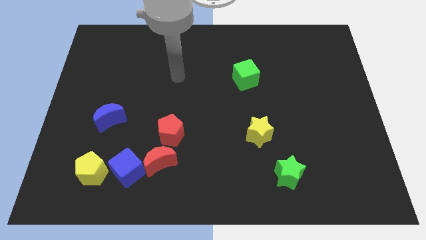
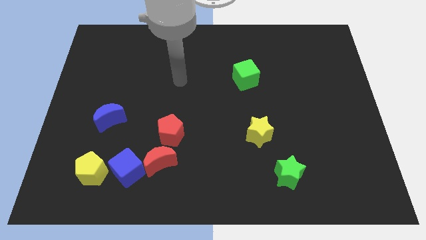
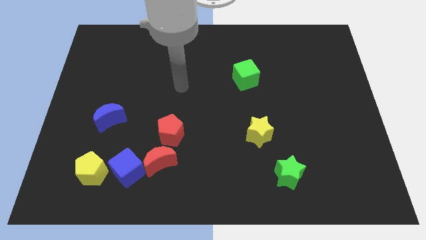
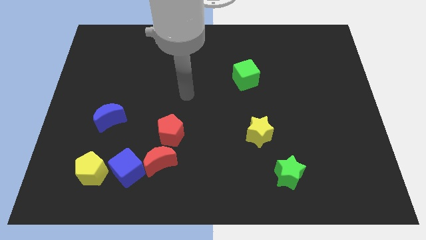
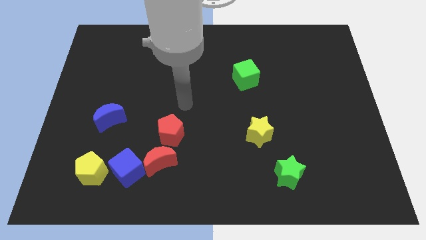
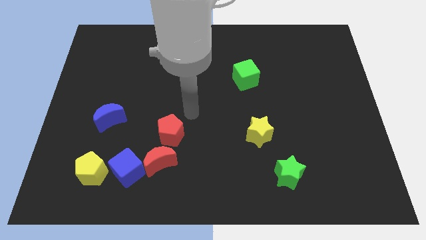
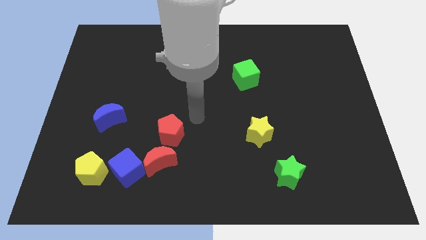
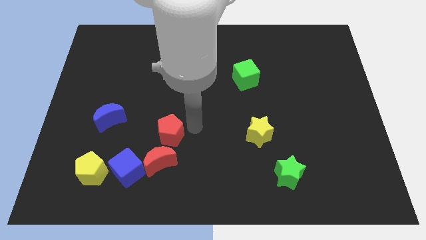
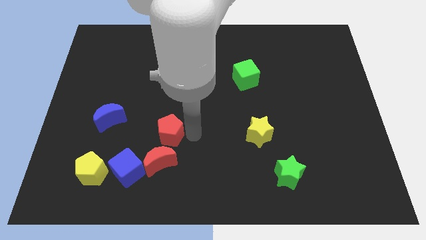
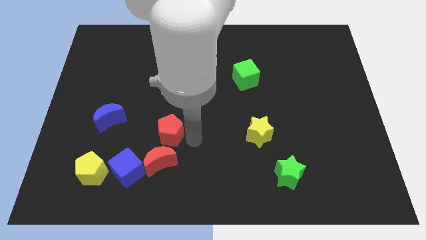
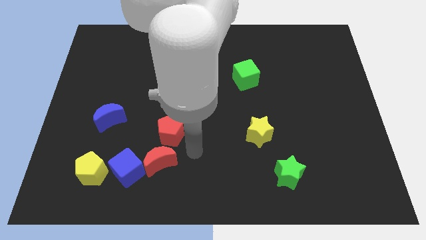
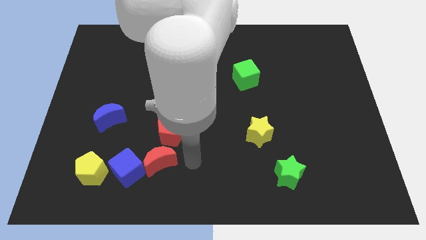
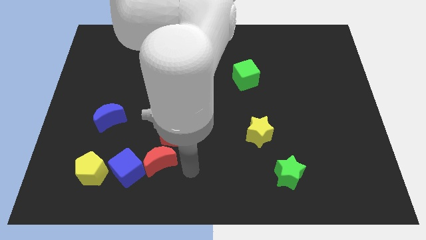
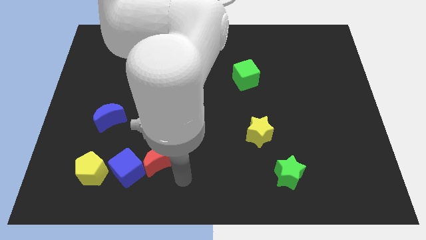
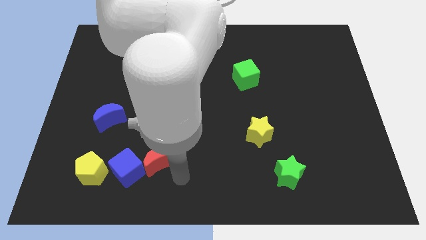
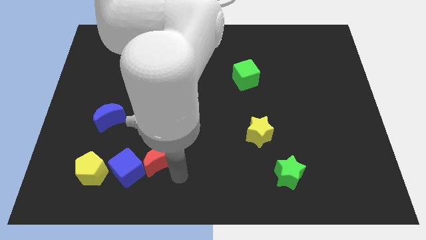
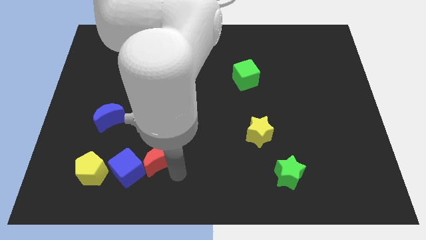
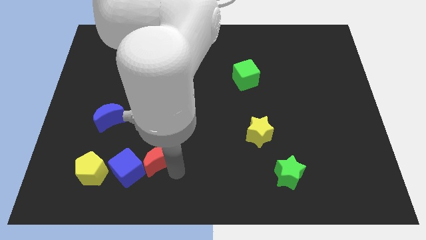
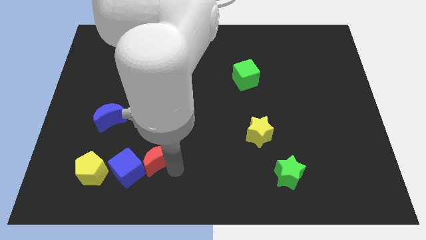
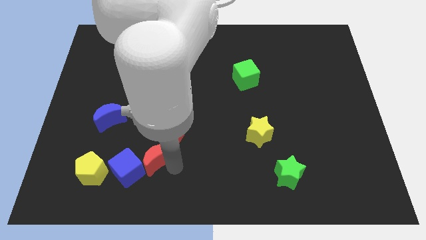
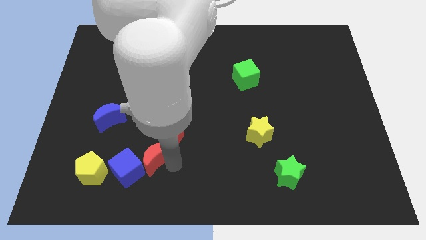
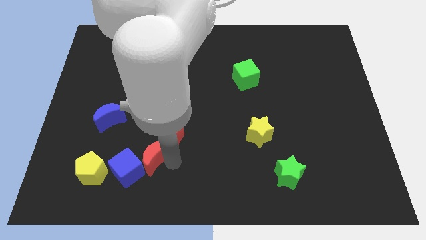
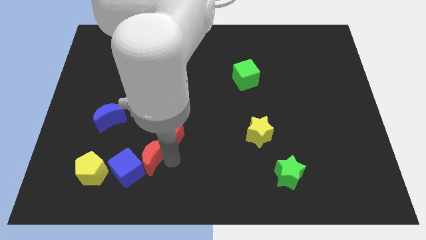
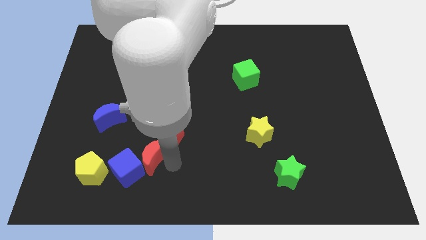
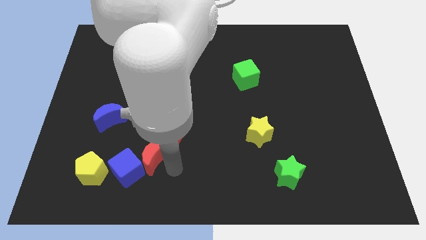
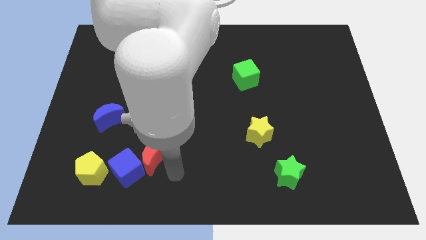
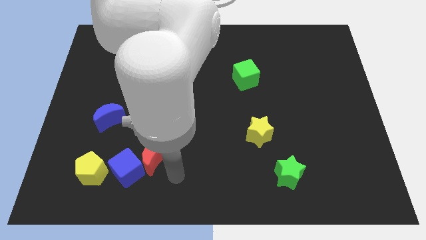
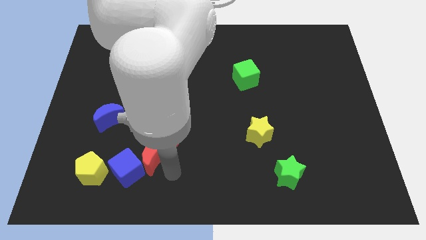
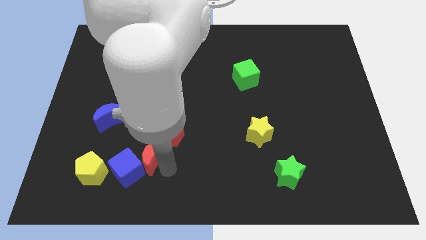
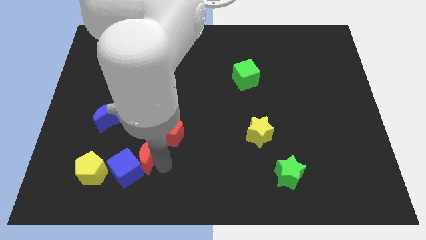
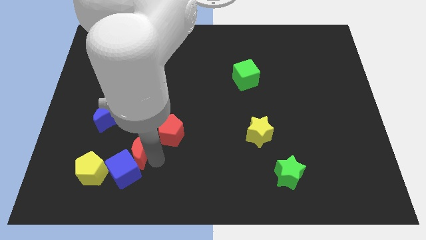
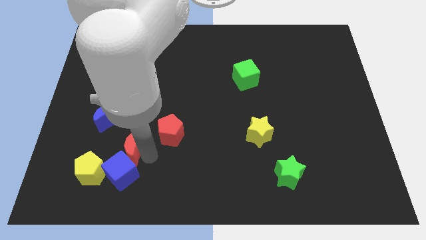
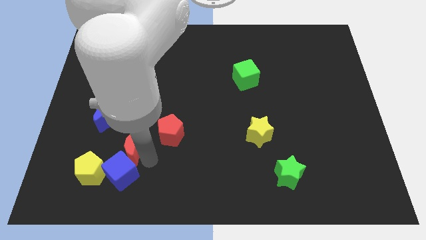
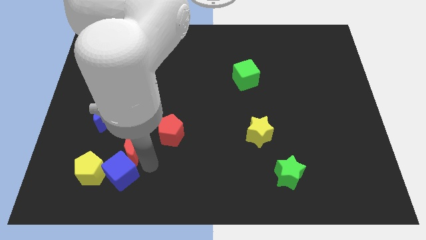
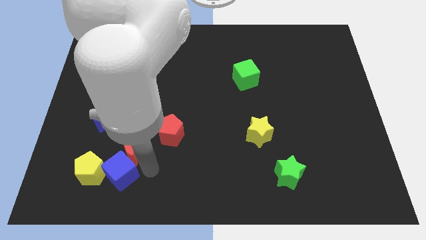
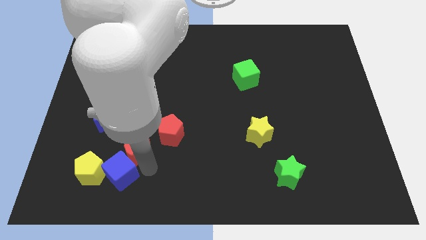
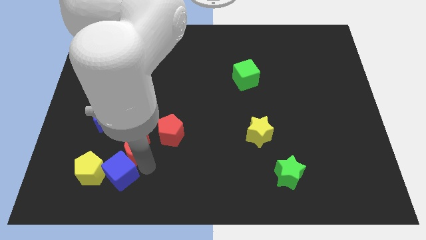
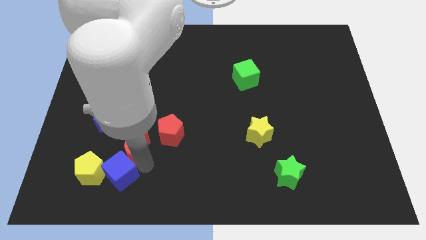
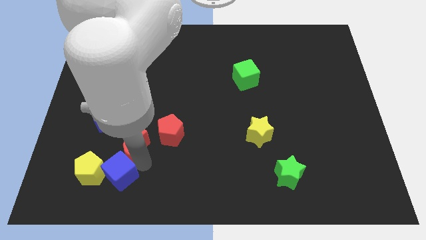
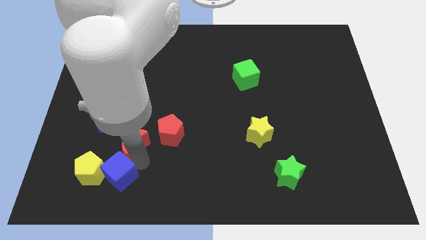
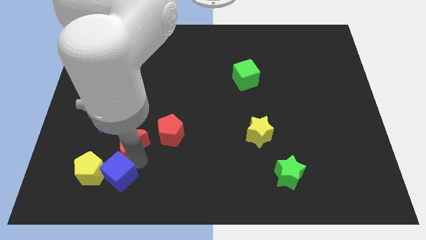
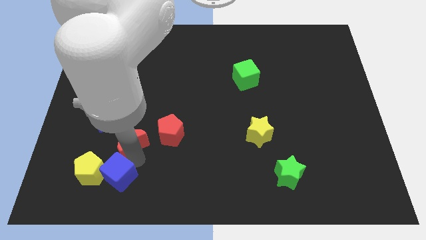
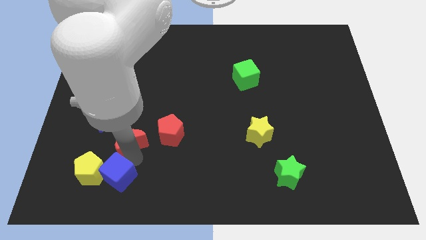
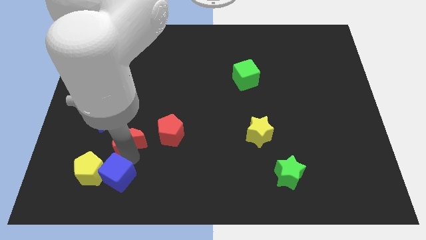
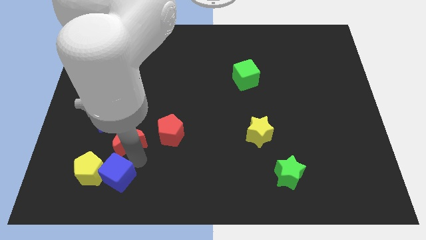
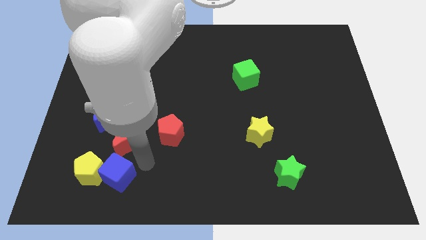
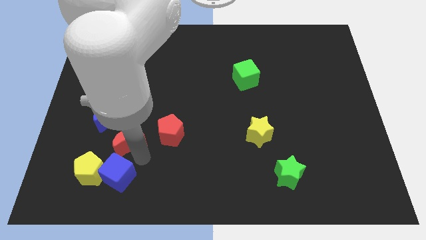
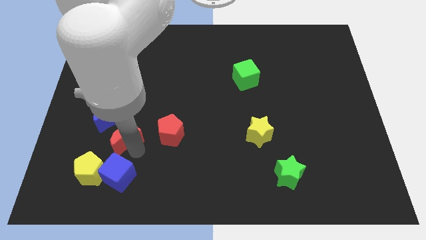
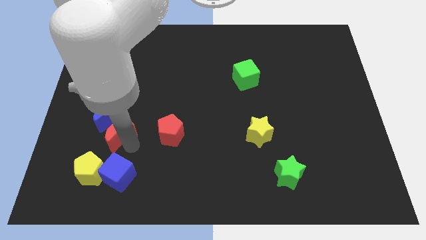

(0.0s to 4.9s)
put the red moon next to the blue moon

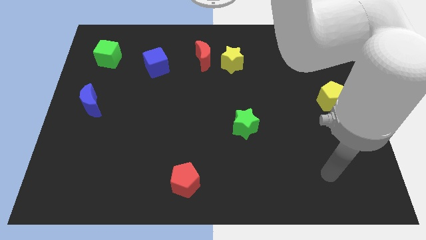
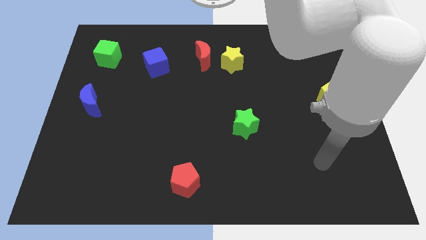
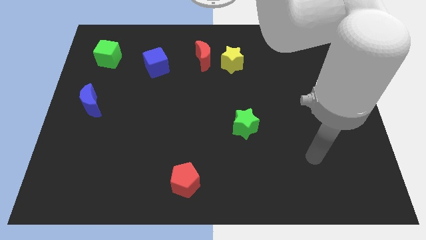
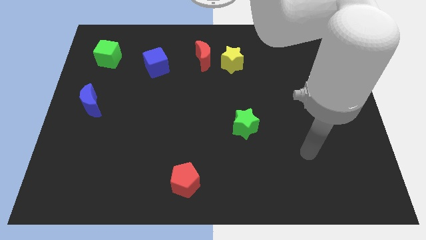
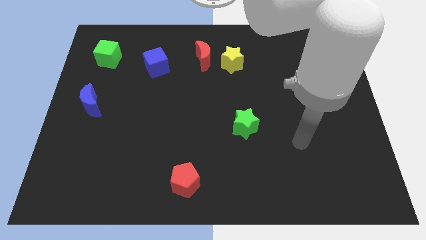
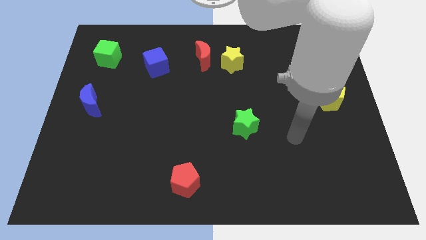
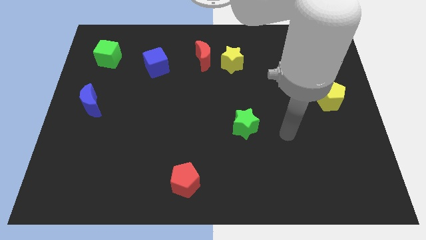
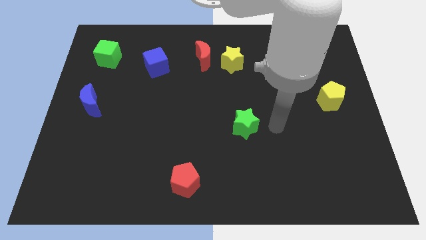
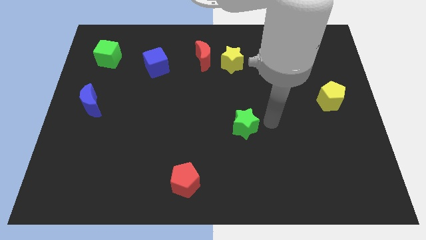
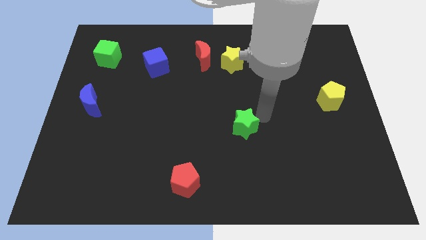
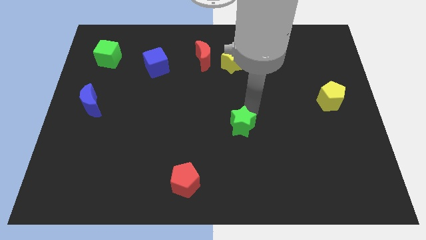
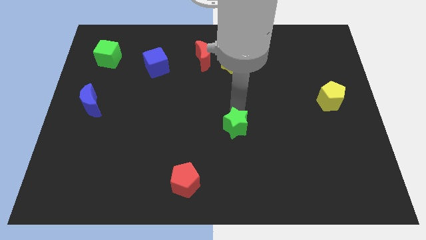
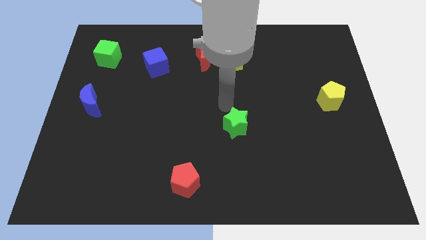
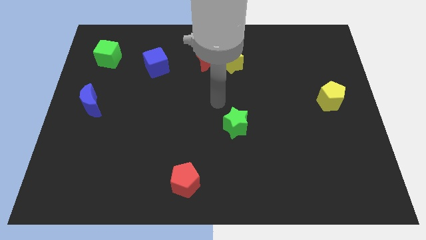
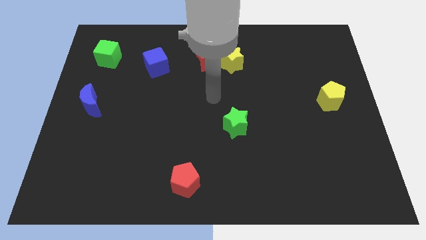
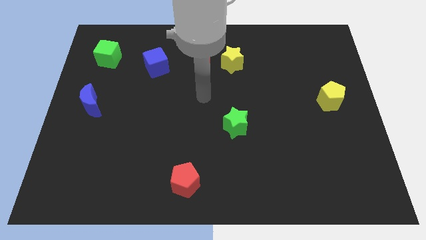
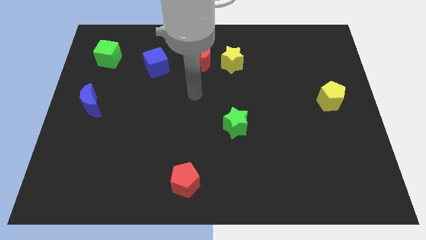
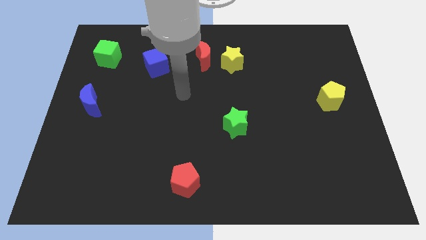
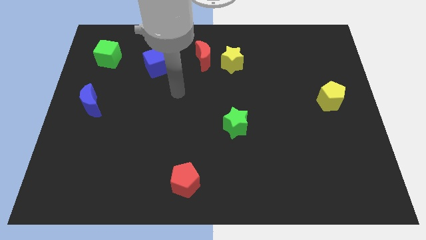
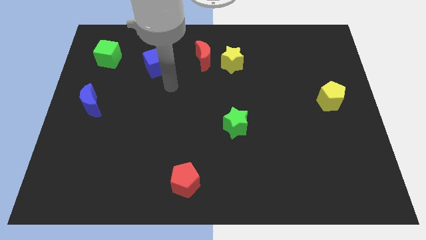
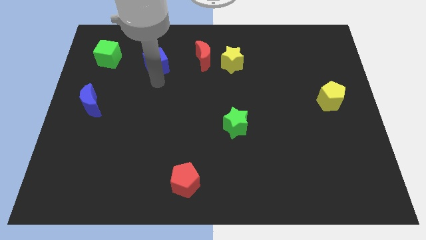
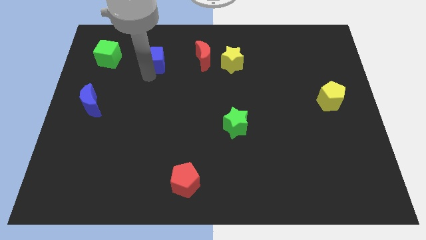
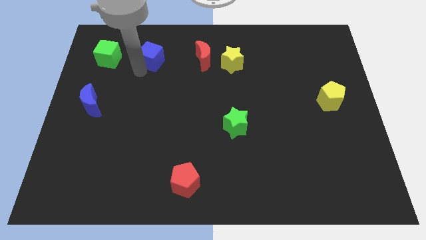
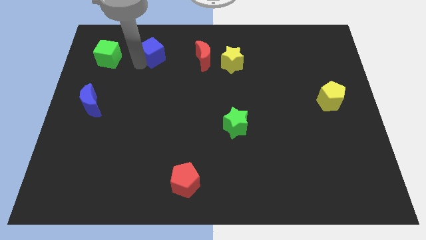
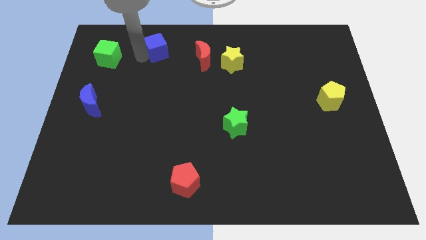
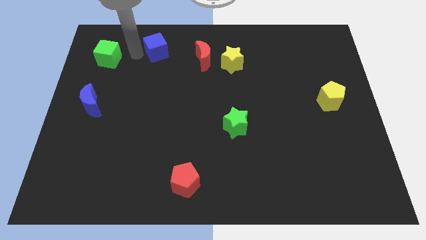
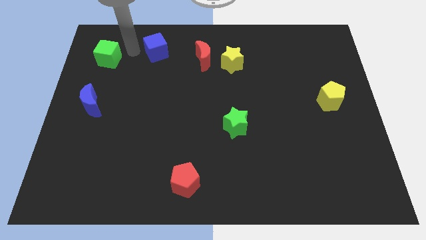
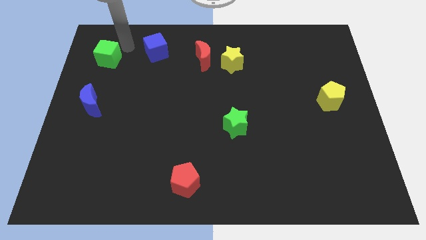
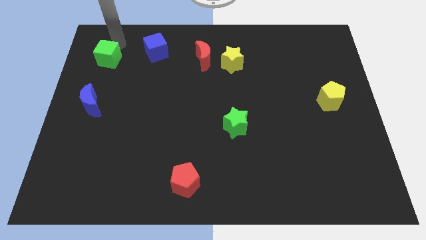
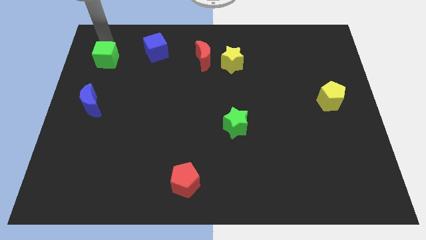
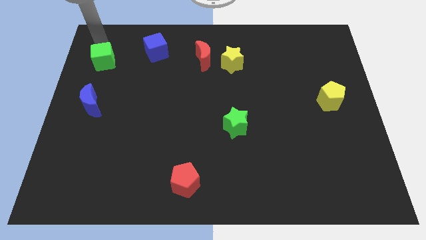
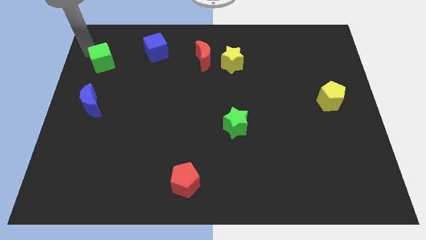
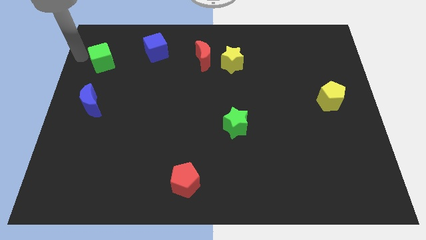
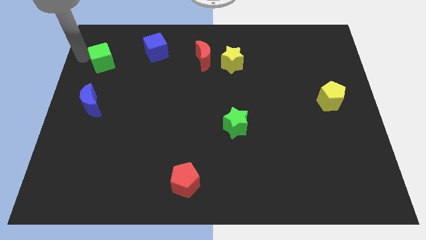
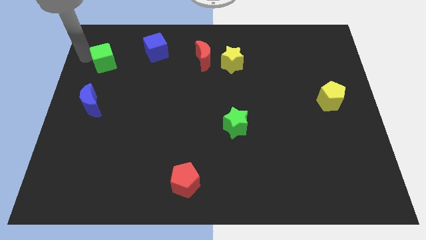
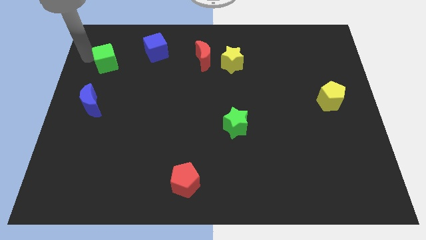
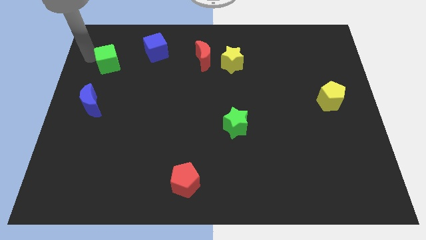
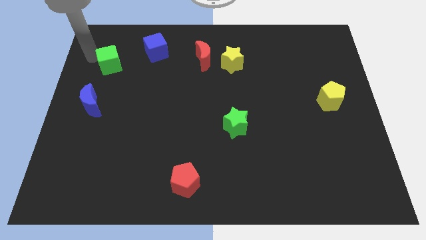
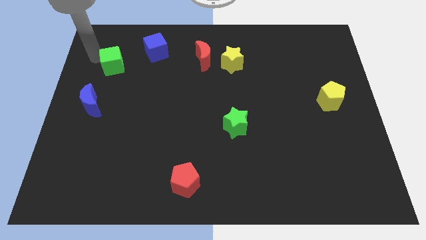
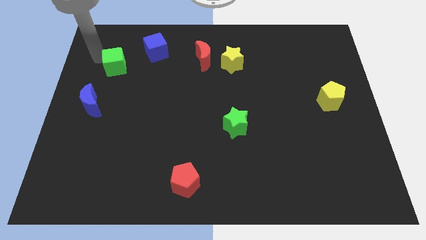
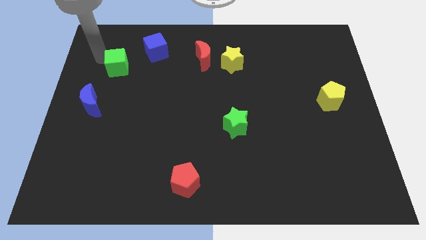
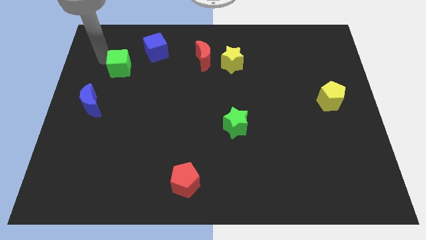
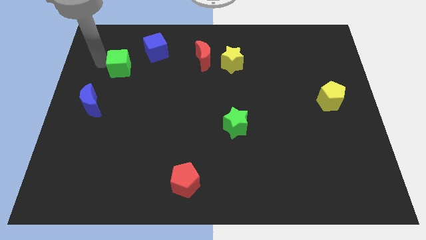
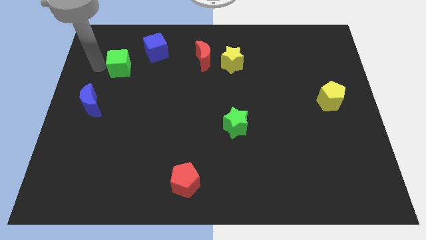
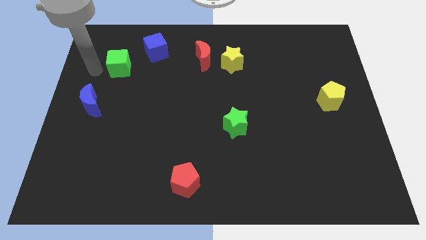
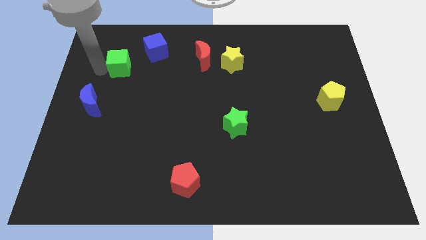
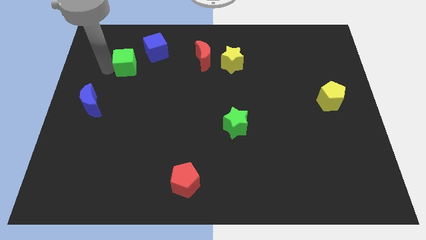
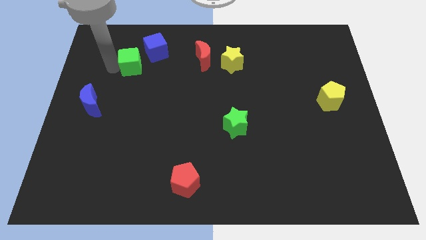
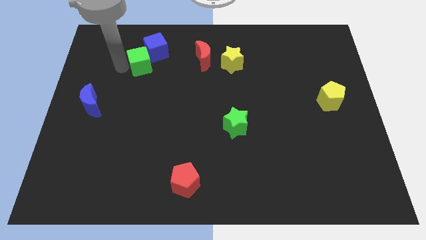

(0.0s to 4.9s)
slide the green cube to the blue cube
